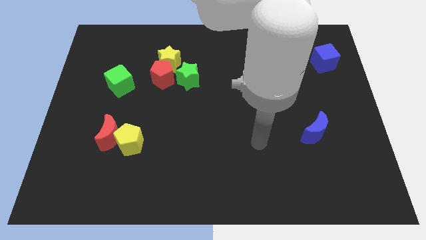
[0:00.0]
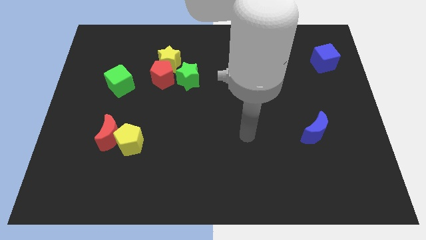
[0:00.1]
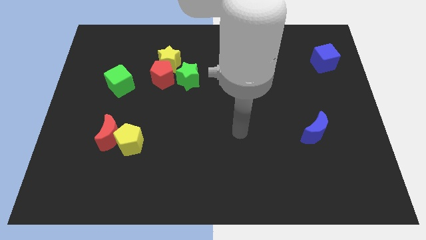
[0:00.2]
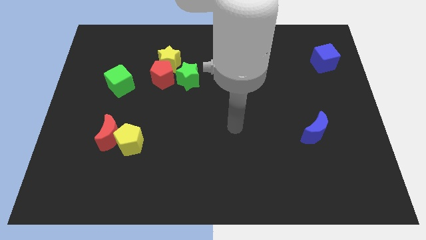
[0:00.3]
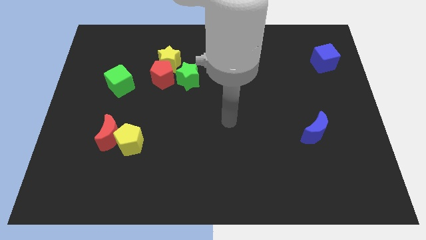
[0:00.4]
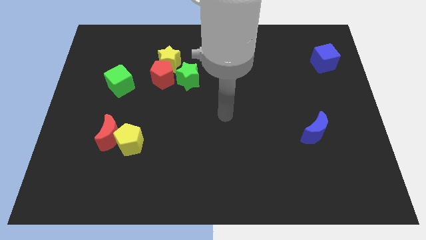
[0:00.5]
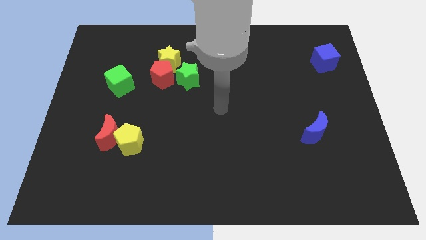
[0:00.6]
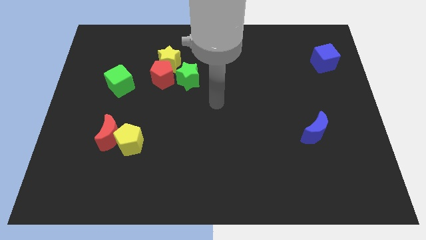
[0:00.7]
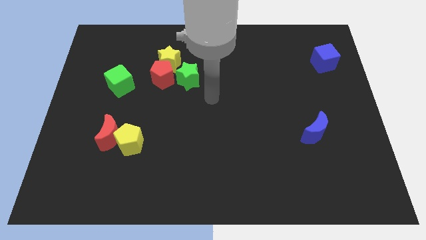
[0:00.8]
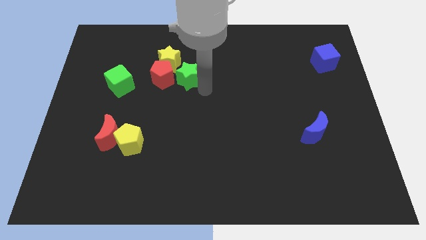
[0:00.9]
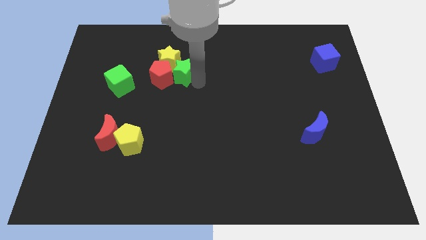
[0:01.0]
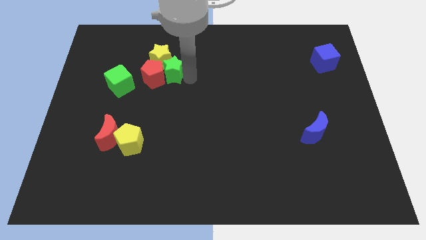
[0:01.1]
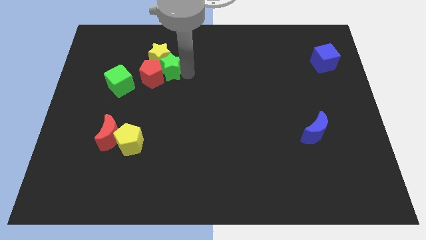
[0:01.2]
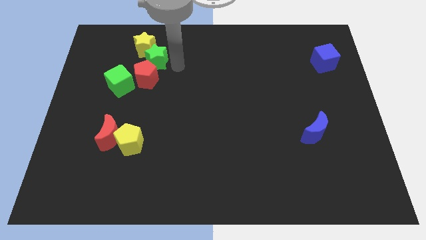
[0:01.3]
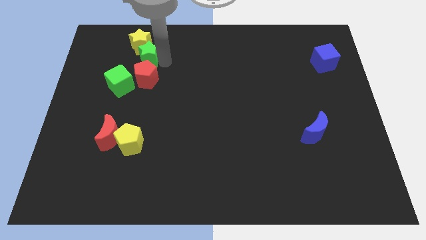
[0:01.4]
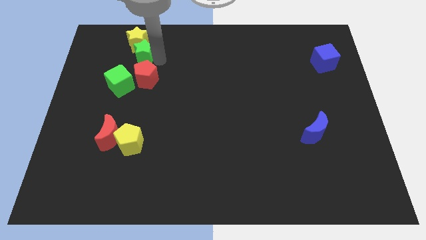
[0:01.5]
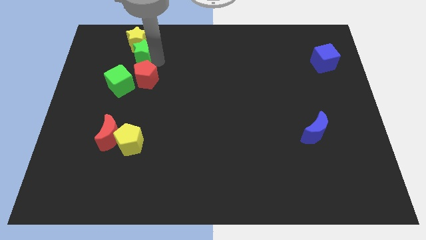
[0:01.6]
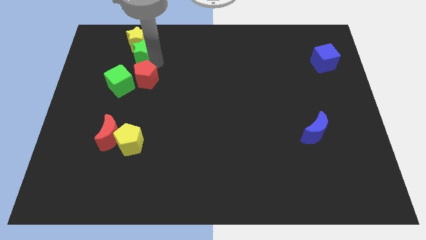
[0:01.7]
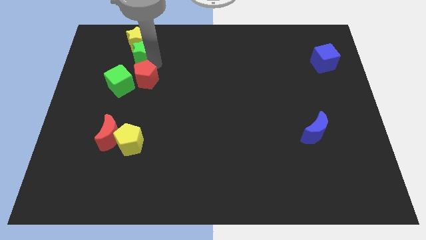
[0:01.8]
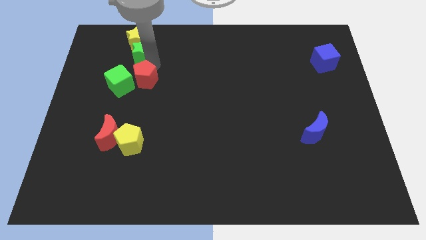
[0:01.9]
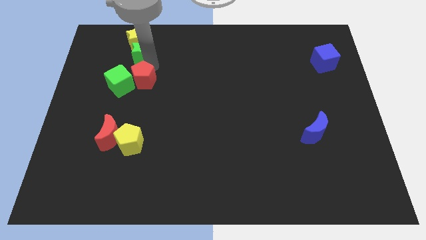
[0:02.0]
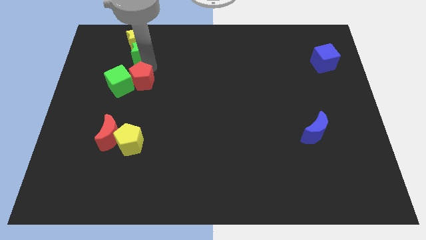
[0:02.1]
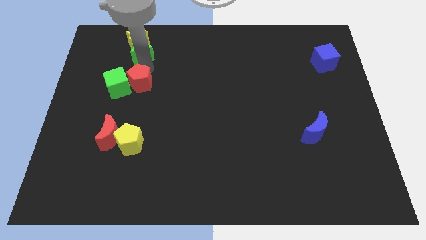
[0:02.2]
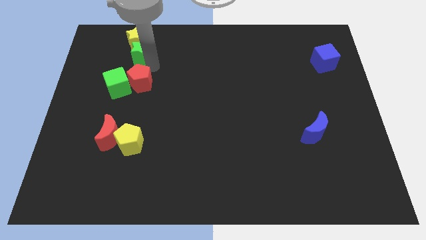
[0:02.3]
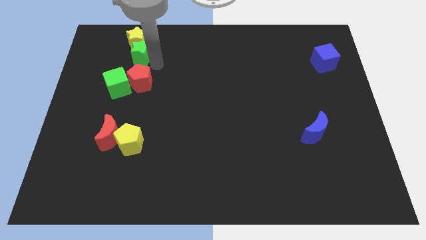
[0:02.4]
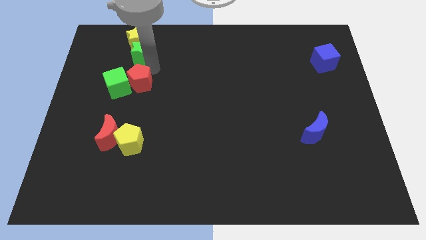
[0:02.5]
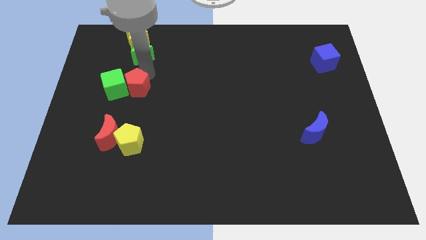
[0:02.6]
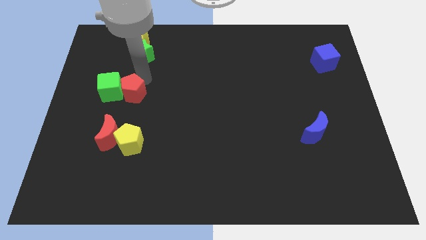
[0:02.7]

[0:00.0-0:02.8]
slide the red pentagon a little bit diagonally down and left

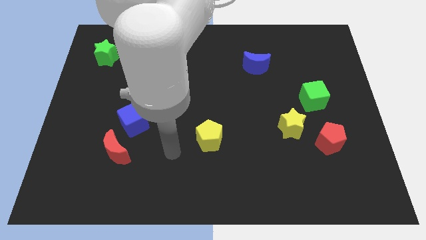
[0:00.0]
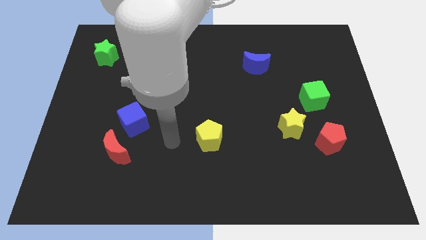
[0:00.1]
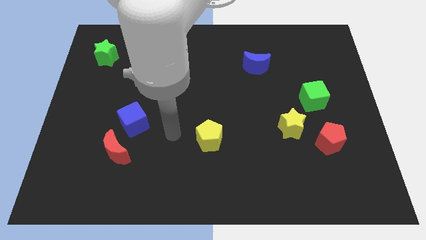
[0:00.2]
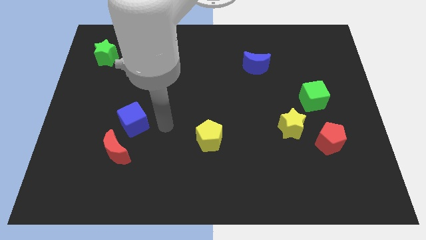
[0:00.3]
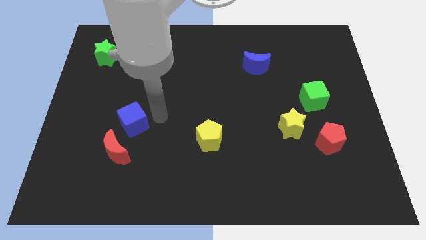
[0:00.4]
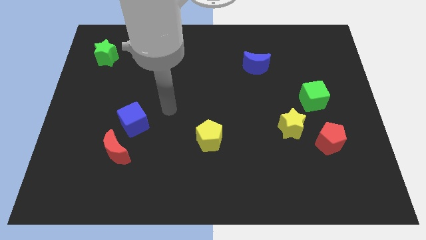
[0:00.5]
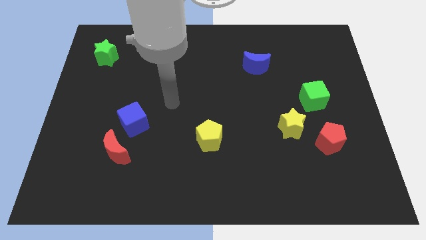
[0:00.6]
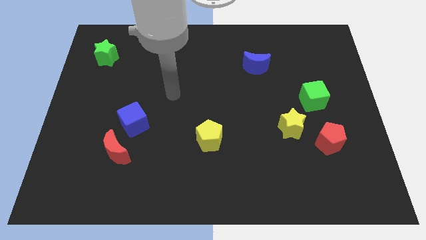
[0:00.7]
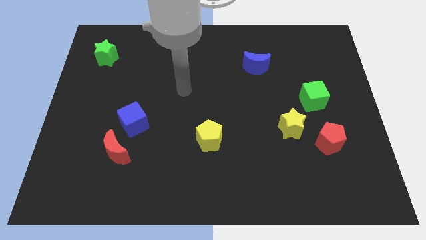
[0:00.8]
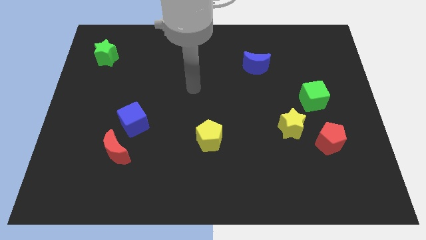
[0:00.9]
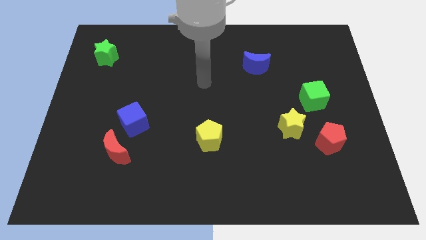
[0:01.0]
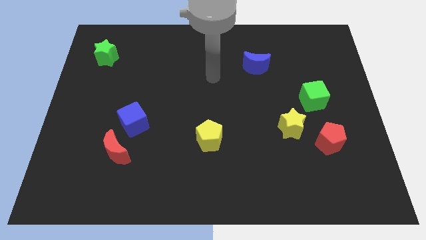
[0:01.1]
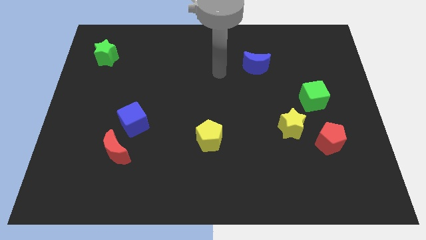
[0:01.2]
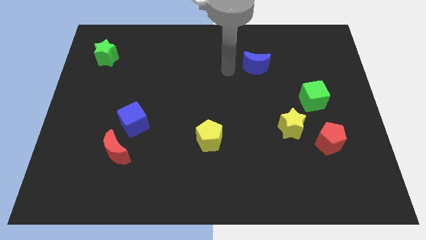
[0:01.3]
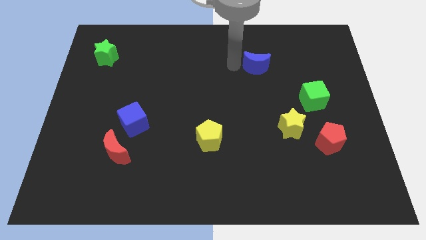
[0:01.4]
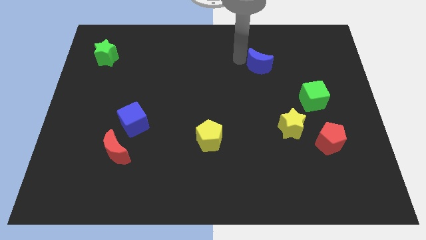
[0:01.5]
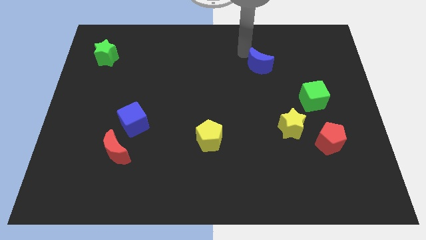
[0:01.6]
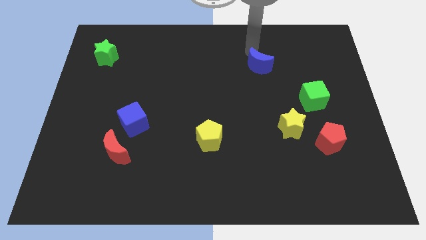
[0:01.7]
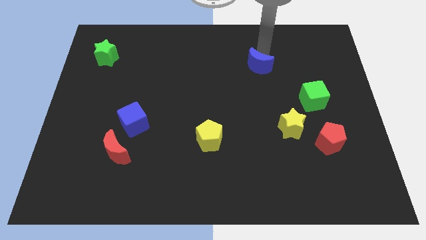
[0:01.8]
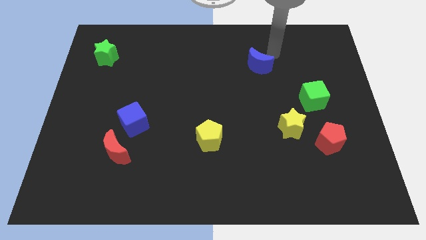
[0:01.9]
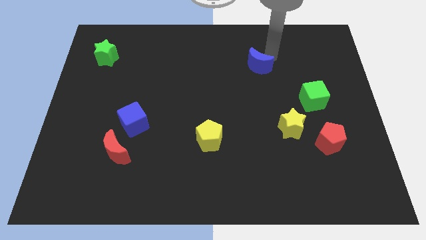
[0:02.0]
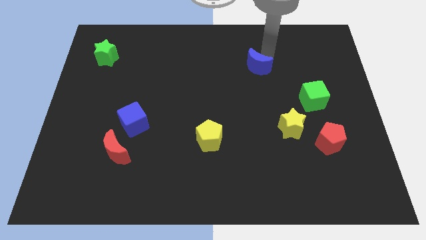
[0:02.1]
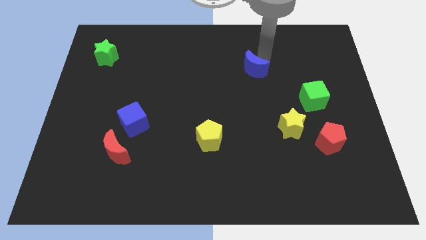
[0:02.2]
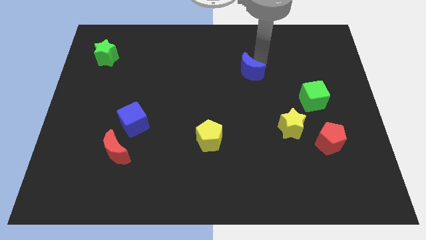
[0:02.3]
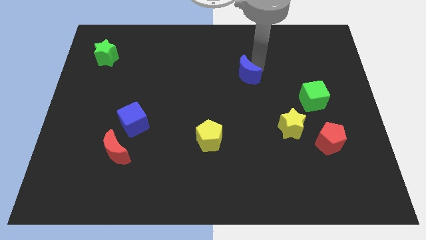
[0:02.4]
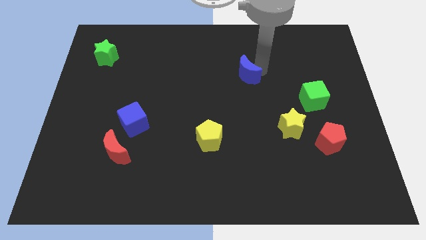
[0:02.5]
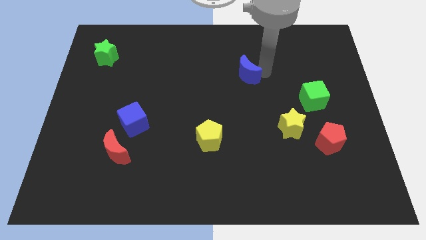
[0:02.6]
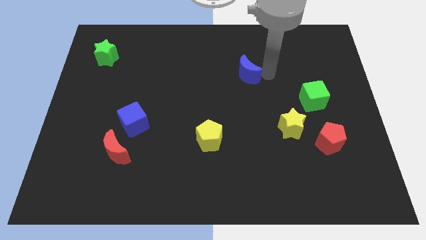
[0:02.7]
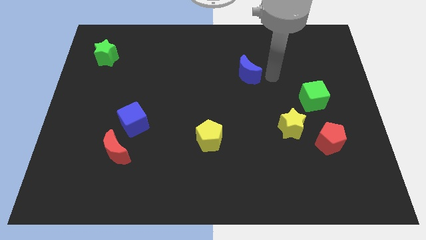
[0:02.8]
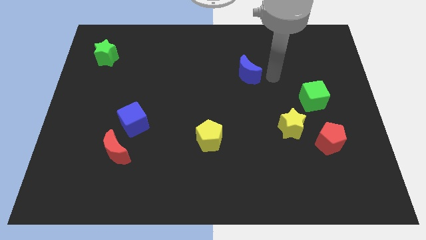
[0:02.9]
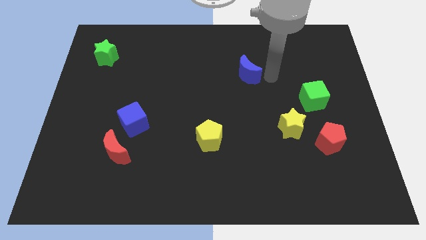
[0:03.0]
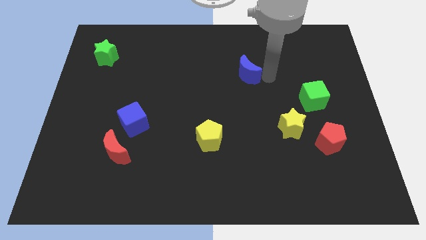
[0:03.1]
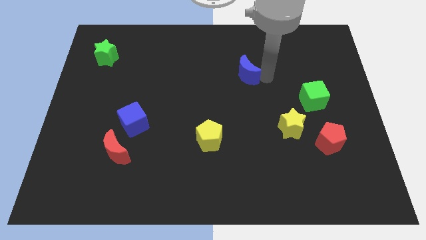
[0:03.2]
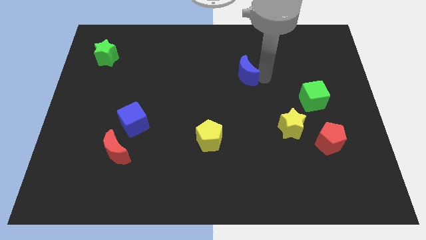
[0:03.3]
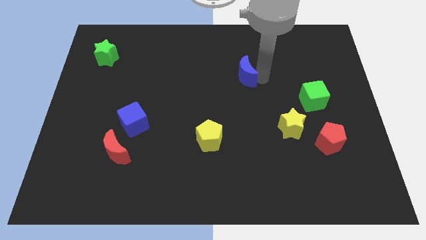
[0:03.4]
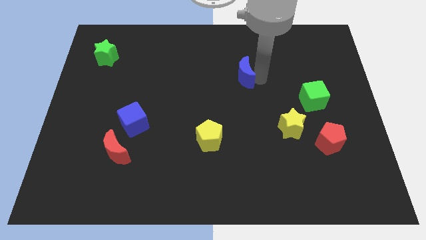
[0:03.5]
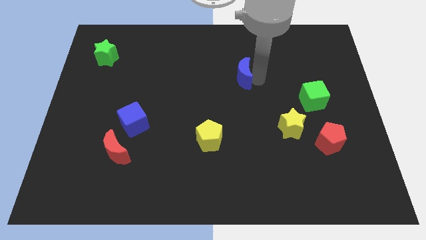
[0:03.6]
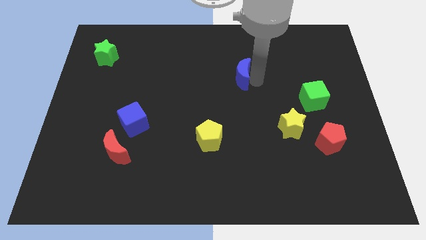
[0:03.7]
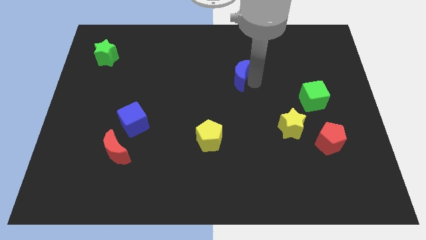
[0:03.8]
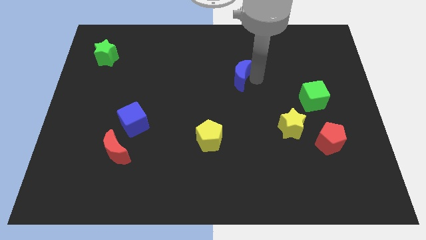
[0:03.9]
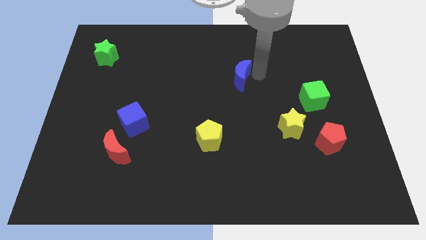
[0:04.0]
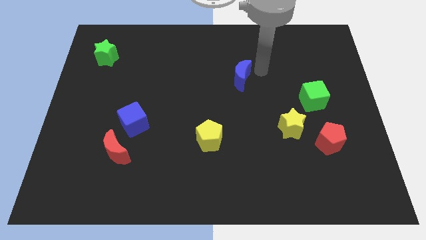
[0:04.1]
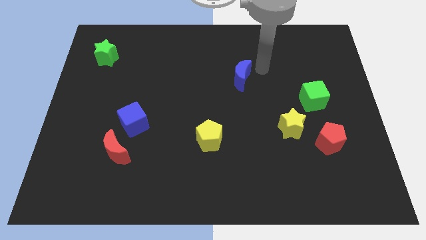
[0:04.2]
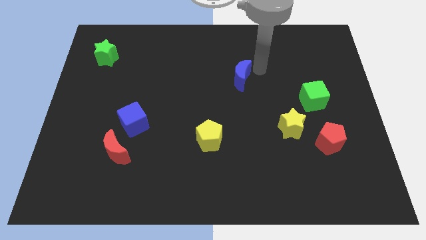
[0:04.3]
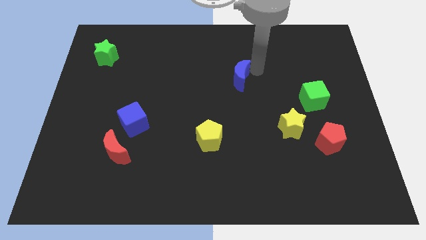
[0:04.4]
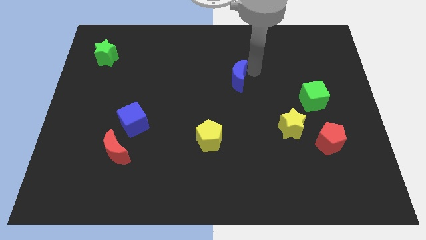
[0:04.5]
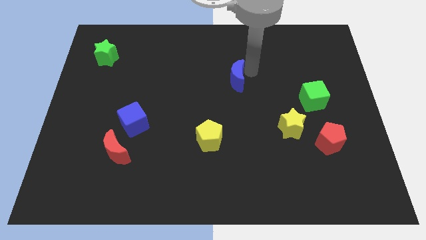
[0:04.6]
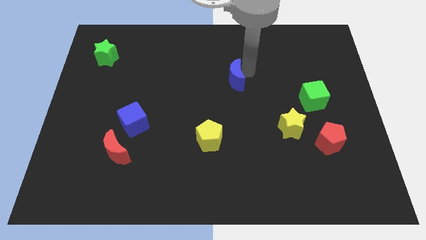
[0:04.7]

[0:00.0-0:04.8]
move the blue moon a little bit downwards and left diagonally

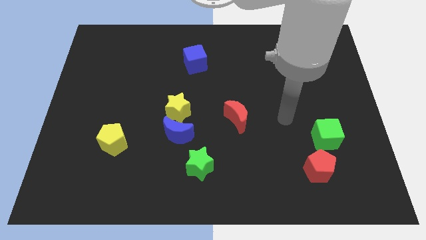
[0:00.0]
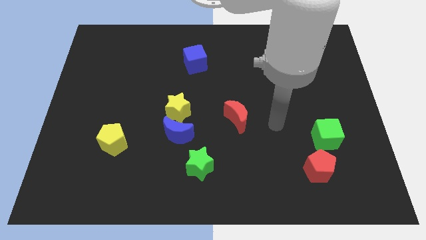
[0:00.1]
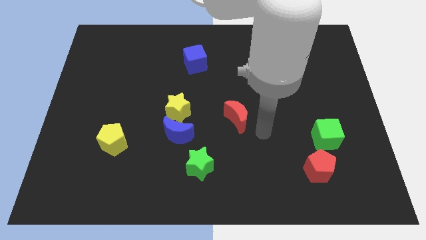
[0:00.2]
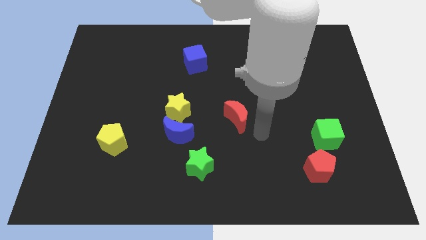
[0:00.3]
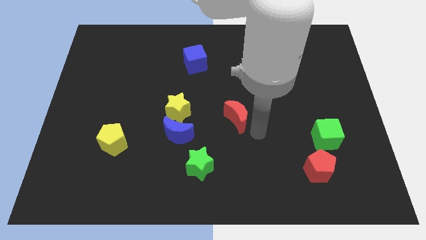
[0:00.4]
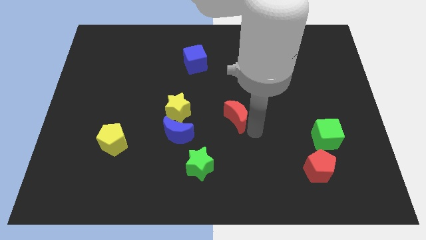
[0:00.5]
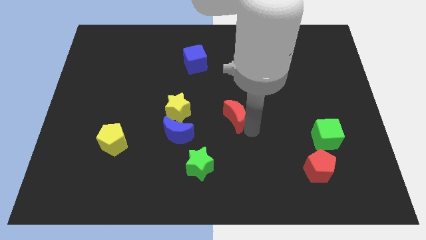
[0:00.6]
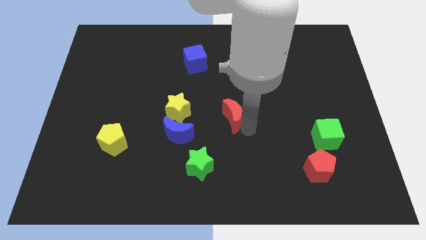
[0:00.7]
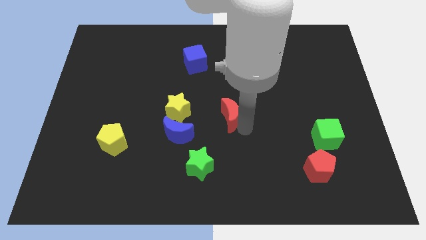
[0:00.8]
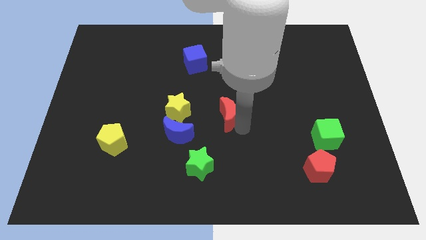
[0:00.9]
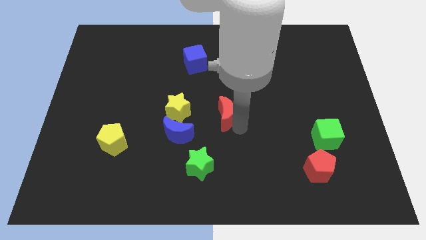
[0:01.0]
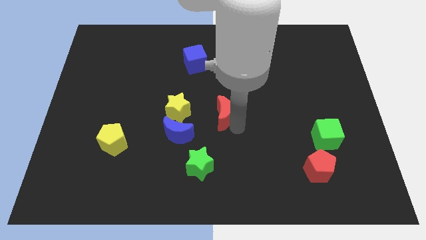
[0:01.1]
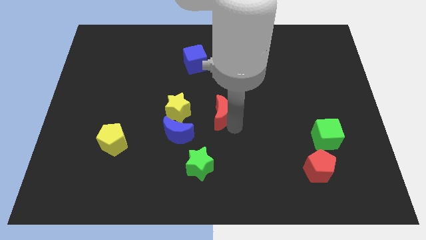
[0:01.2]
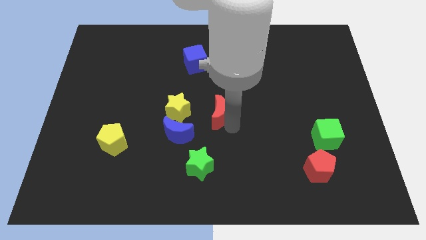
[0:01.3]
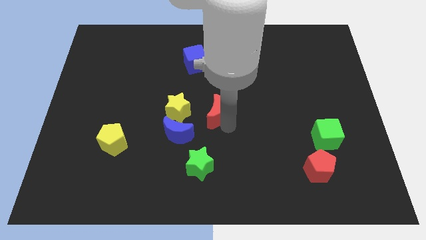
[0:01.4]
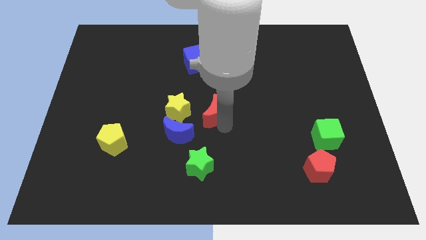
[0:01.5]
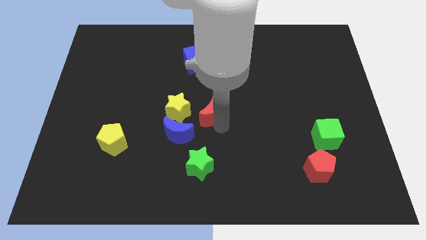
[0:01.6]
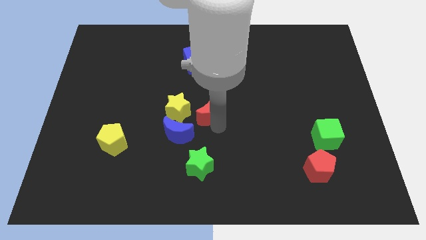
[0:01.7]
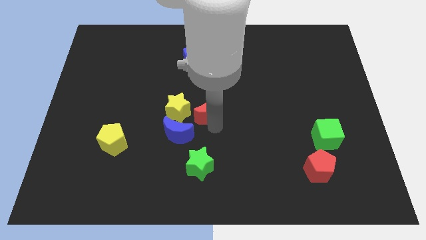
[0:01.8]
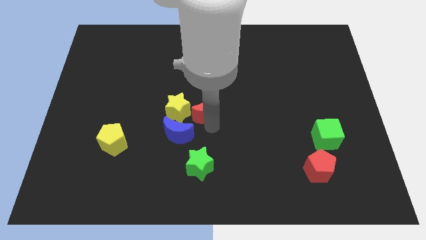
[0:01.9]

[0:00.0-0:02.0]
move the red moon left a bit
